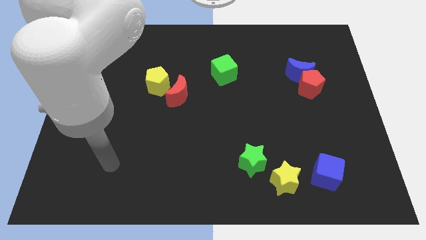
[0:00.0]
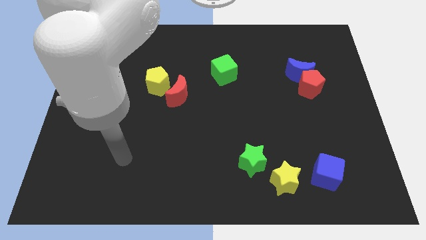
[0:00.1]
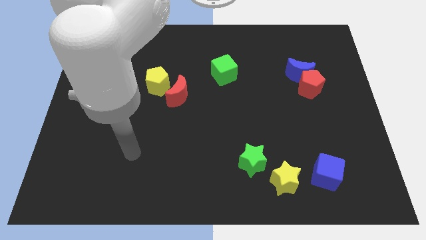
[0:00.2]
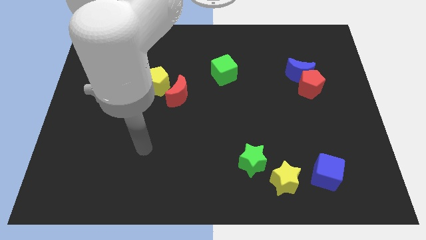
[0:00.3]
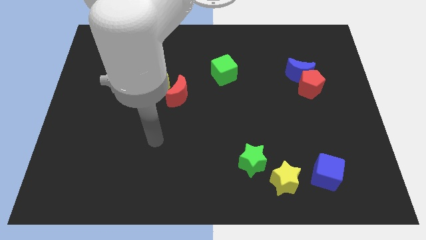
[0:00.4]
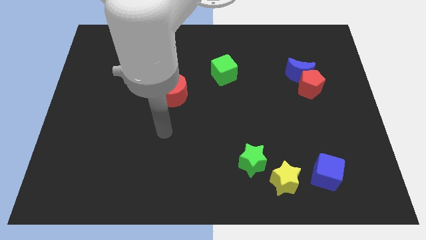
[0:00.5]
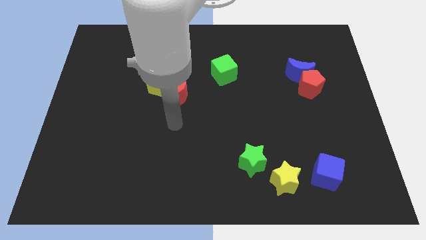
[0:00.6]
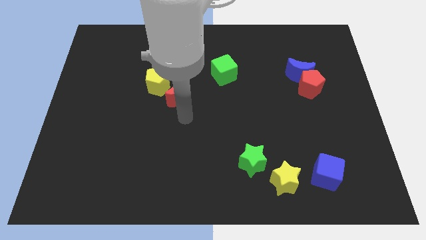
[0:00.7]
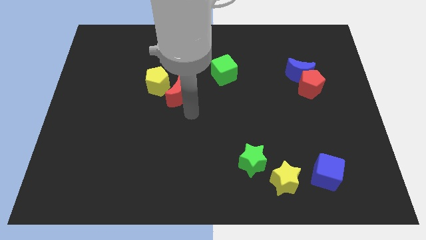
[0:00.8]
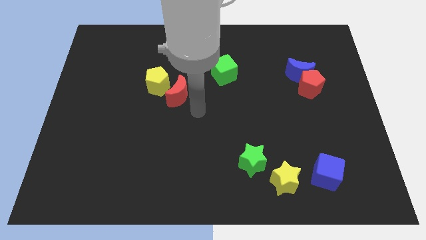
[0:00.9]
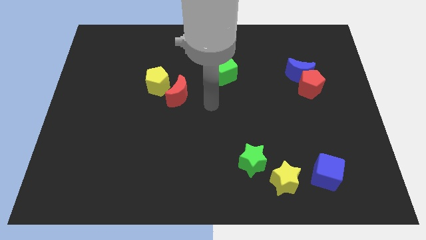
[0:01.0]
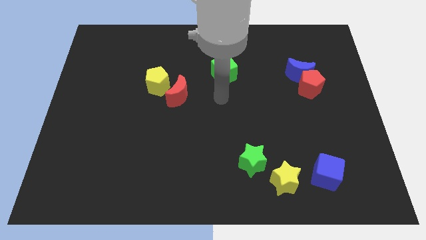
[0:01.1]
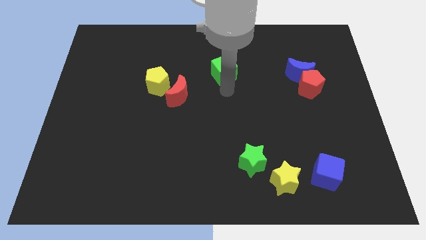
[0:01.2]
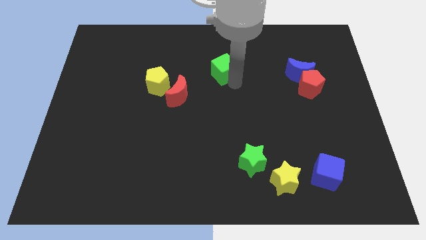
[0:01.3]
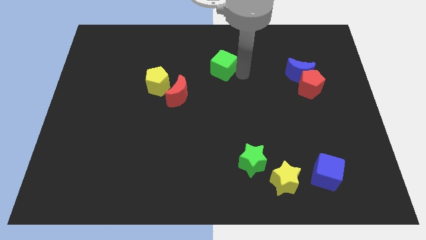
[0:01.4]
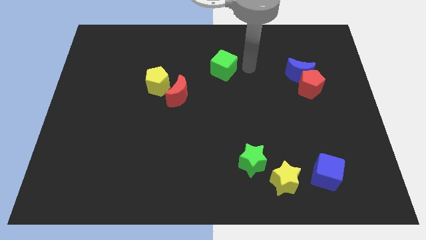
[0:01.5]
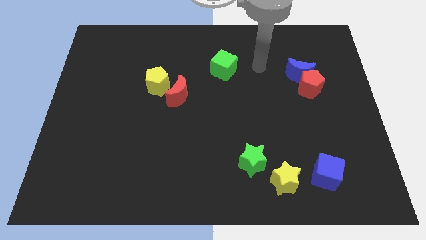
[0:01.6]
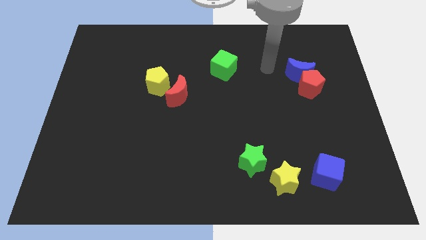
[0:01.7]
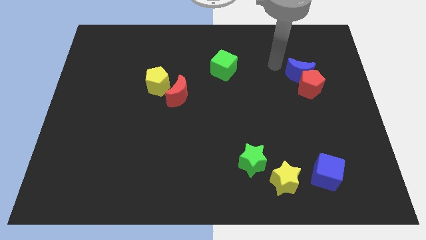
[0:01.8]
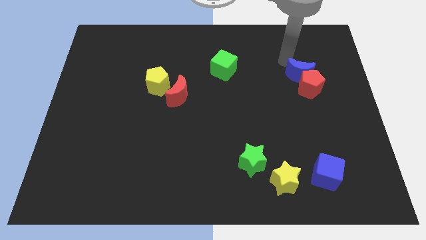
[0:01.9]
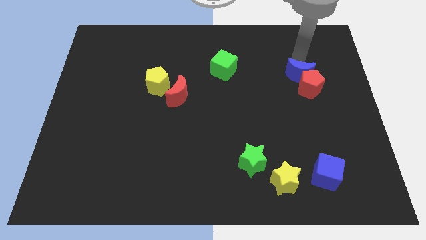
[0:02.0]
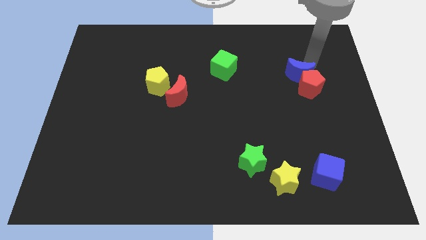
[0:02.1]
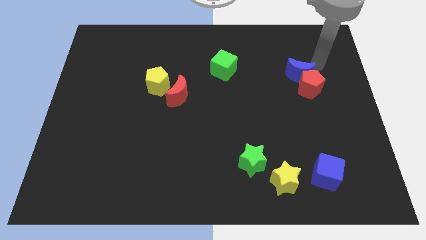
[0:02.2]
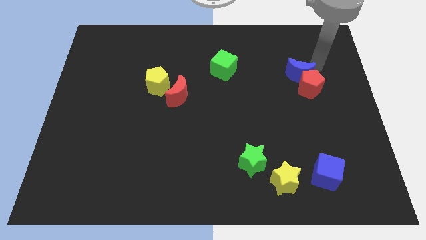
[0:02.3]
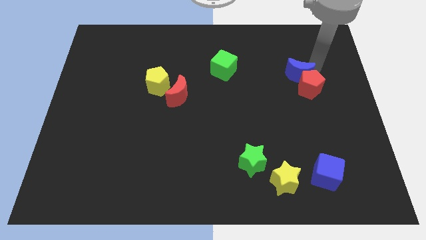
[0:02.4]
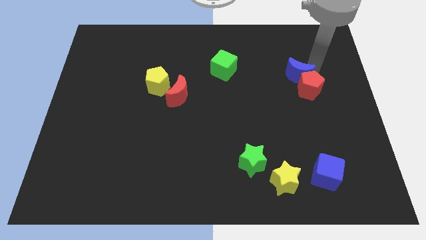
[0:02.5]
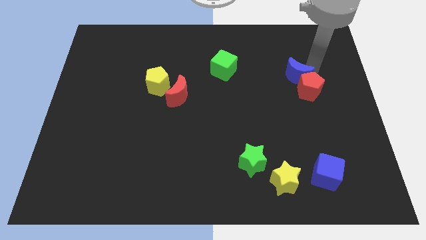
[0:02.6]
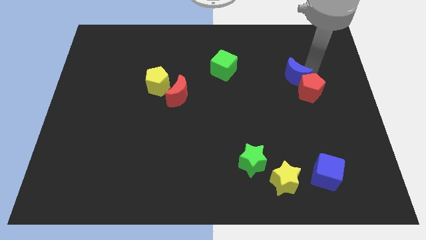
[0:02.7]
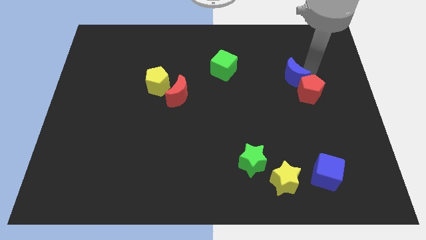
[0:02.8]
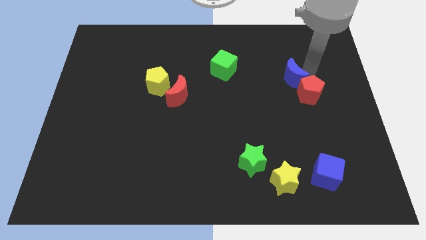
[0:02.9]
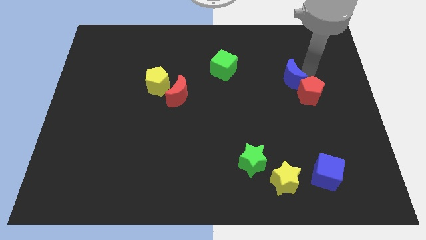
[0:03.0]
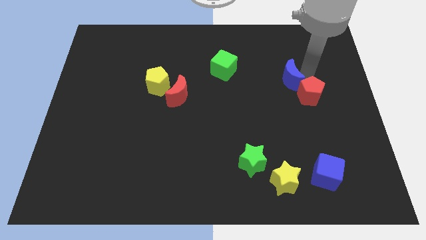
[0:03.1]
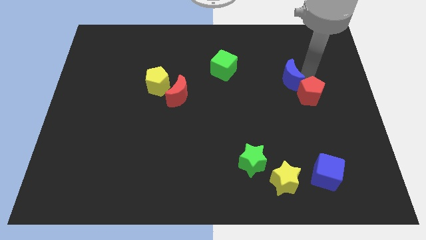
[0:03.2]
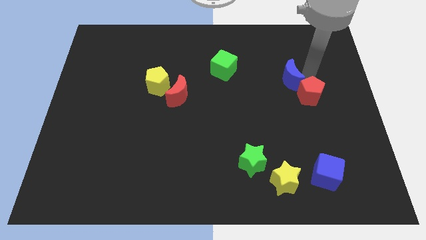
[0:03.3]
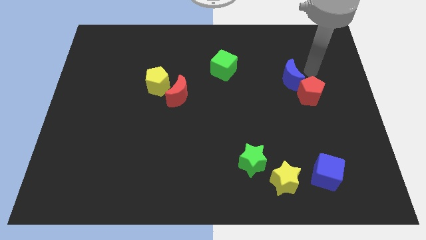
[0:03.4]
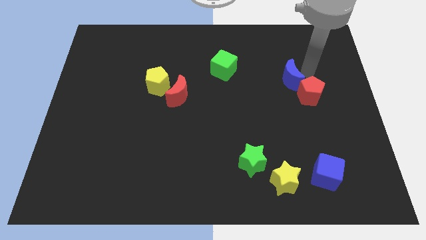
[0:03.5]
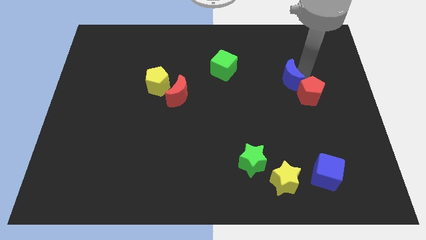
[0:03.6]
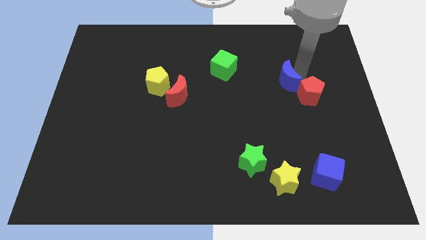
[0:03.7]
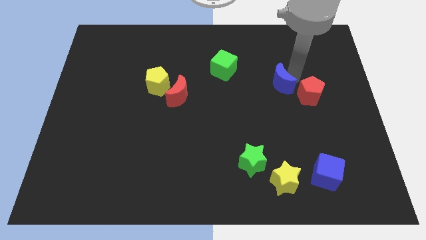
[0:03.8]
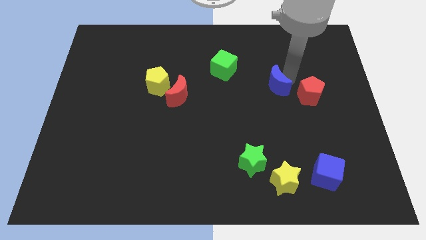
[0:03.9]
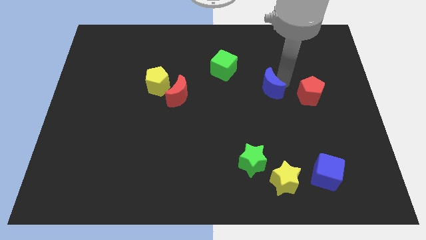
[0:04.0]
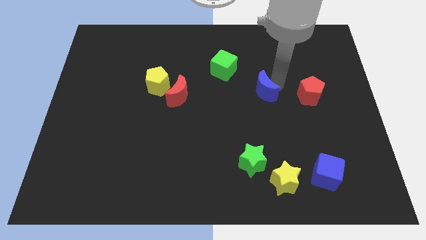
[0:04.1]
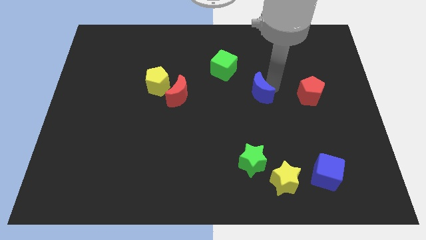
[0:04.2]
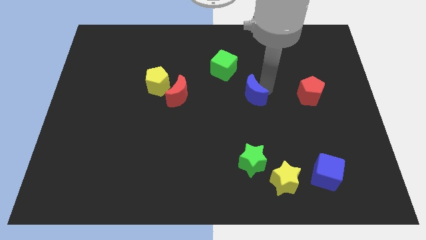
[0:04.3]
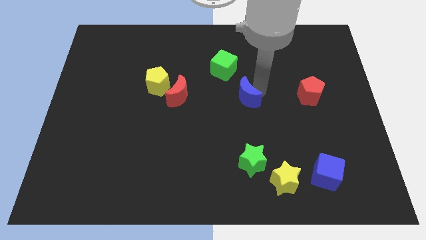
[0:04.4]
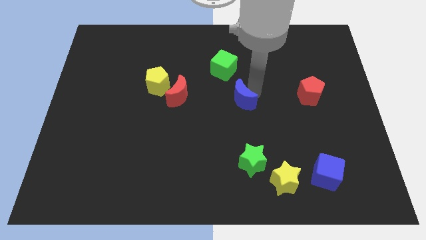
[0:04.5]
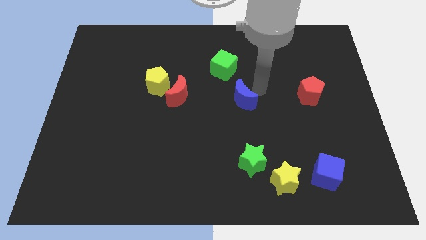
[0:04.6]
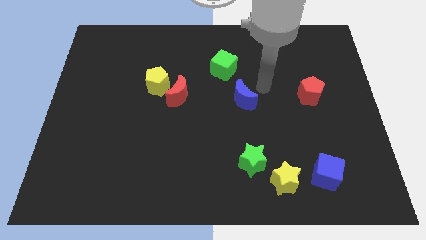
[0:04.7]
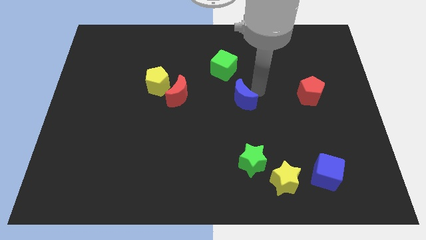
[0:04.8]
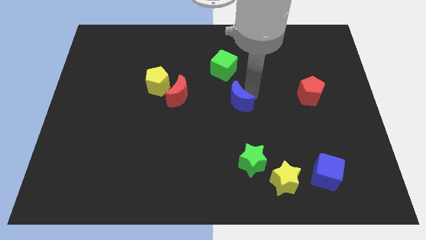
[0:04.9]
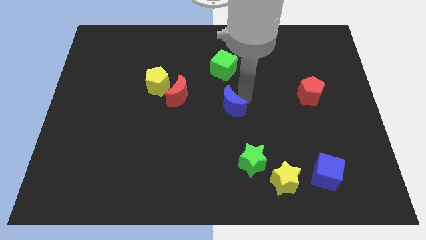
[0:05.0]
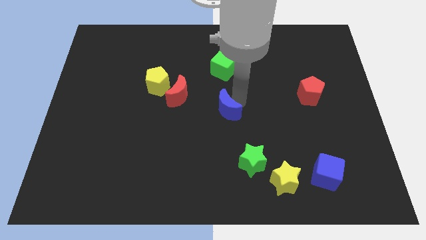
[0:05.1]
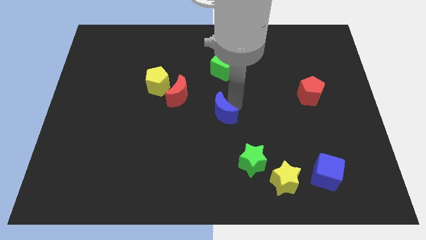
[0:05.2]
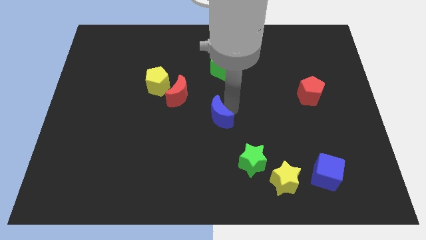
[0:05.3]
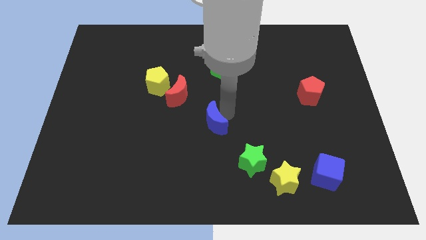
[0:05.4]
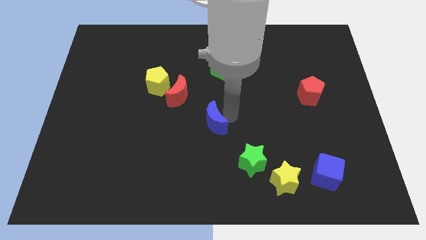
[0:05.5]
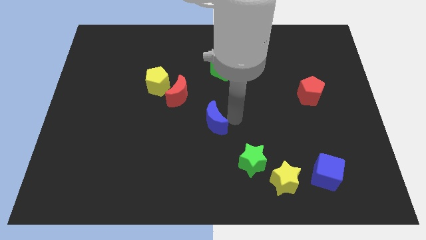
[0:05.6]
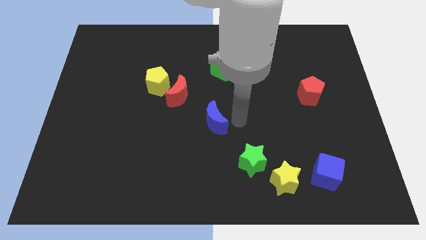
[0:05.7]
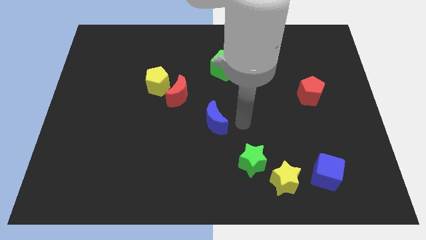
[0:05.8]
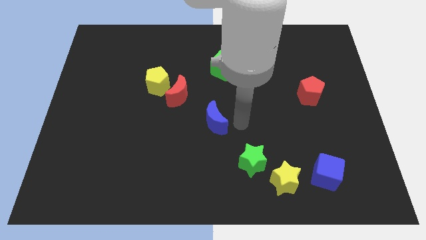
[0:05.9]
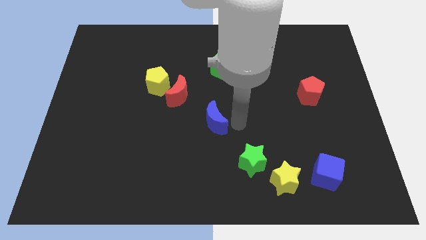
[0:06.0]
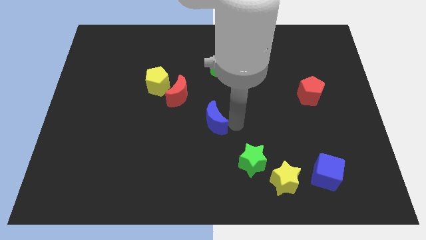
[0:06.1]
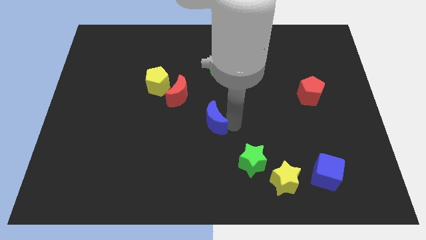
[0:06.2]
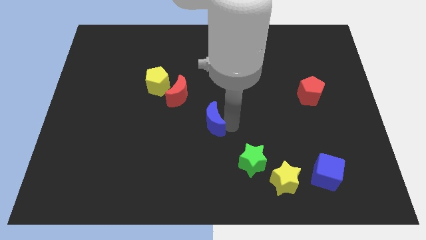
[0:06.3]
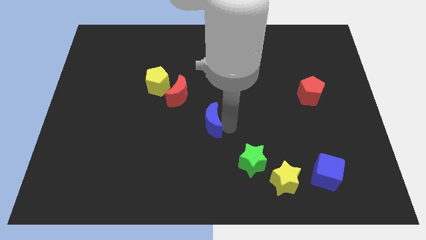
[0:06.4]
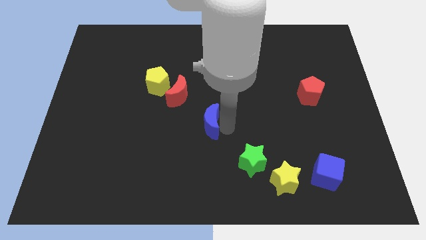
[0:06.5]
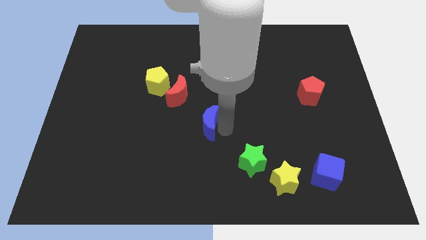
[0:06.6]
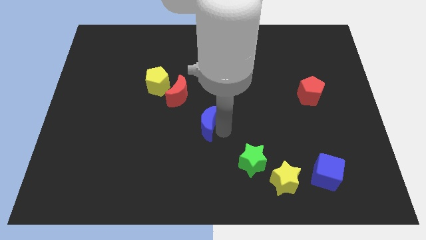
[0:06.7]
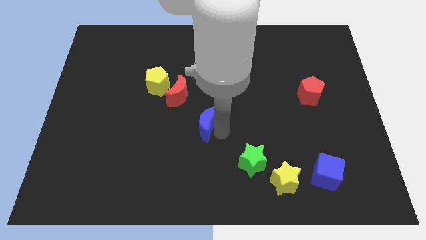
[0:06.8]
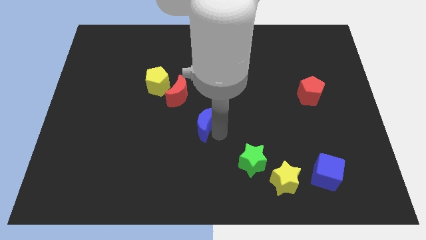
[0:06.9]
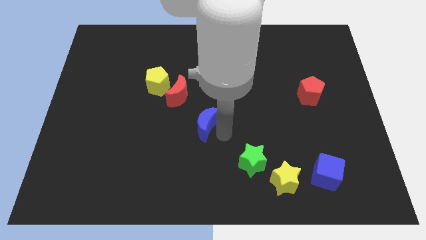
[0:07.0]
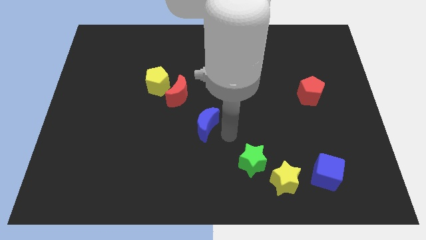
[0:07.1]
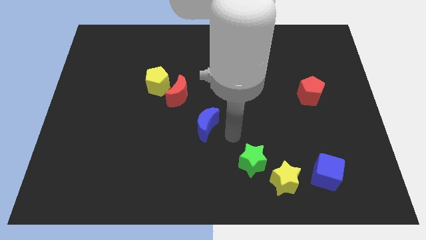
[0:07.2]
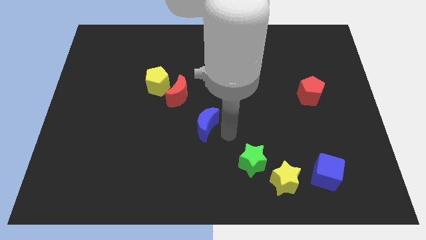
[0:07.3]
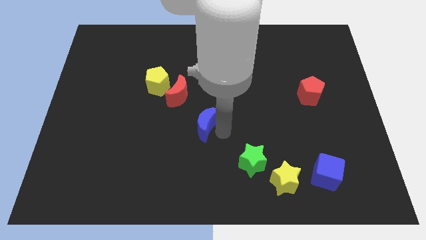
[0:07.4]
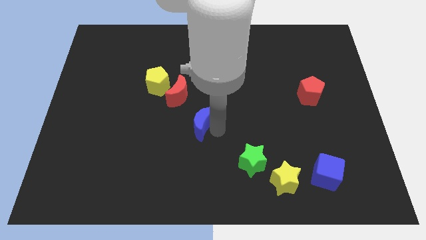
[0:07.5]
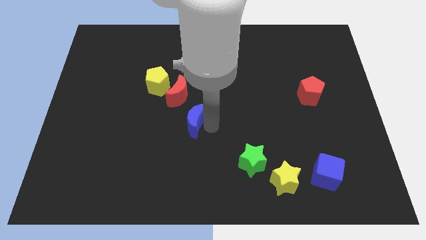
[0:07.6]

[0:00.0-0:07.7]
push the blue moon to the bottom side of the red moon

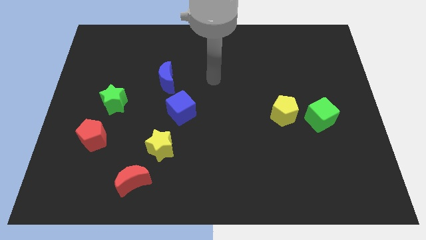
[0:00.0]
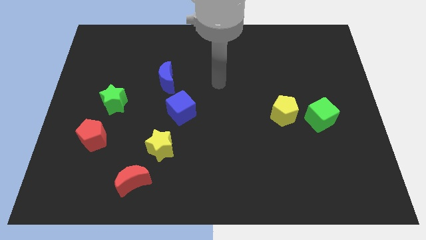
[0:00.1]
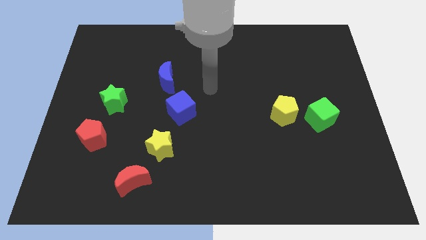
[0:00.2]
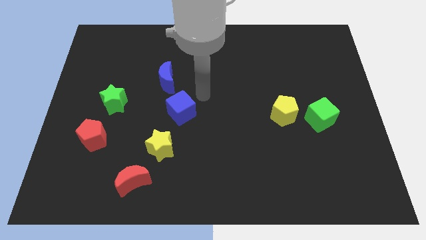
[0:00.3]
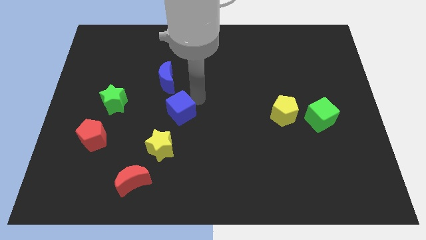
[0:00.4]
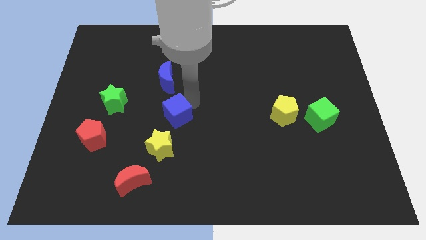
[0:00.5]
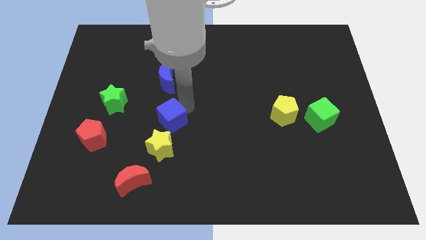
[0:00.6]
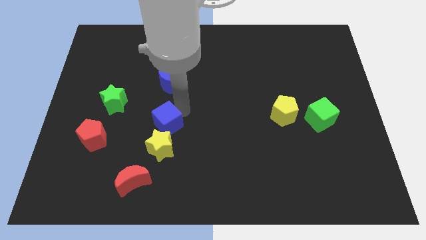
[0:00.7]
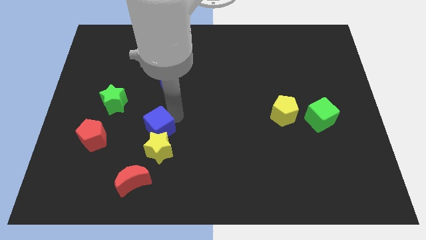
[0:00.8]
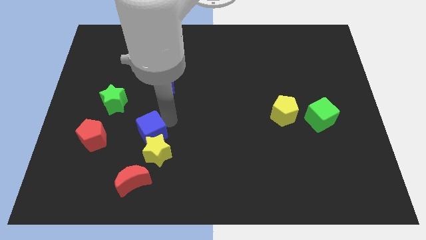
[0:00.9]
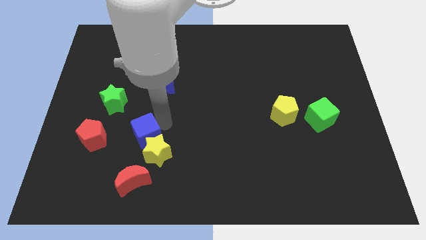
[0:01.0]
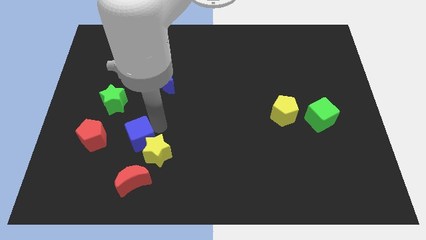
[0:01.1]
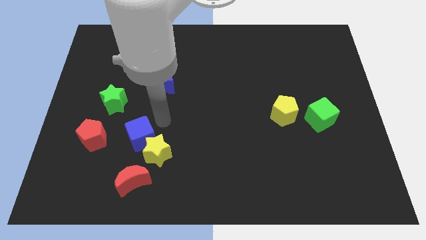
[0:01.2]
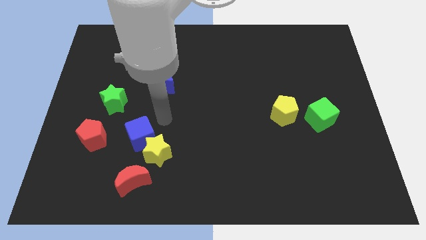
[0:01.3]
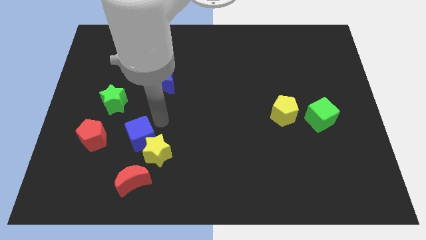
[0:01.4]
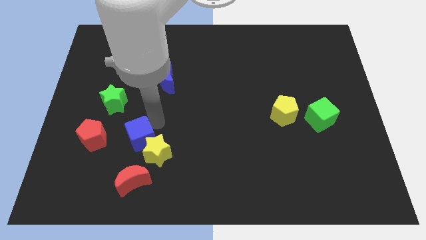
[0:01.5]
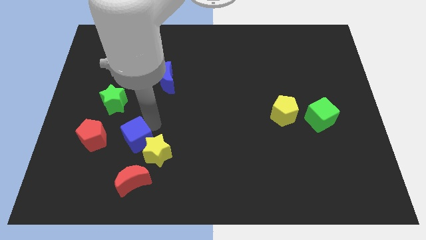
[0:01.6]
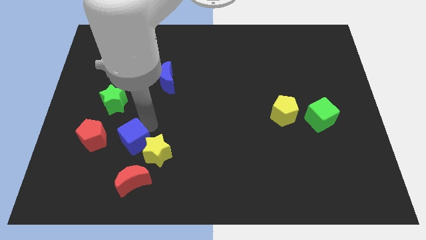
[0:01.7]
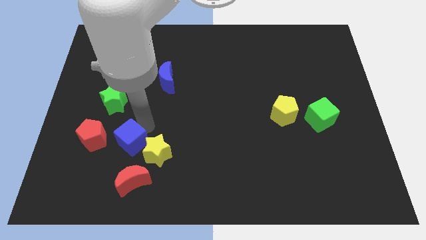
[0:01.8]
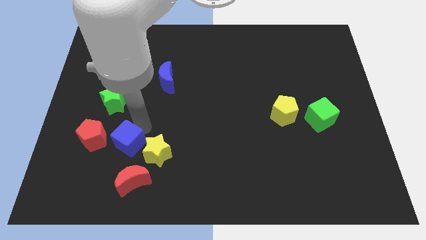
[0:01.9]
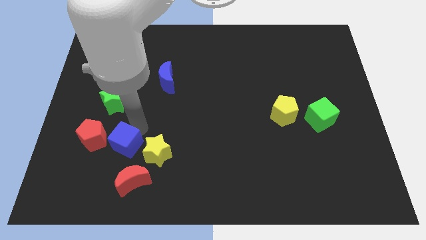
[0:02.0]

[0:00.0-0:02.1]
slide the blue cube diagonally down and to the right of the red pentagon
